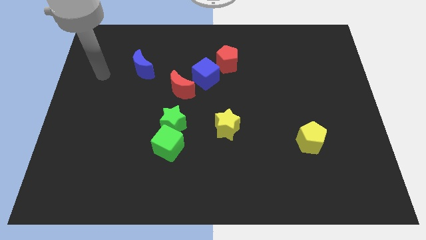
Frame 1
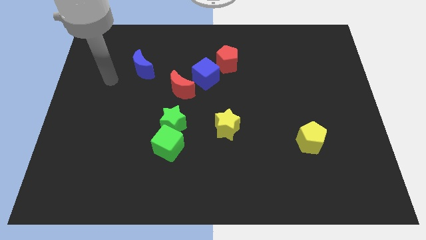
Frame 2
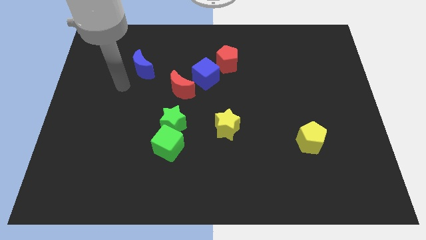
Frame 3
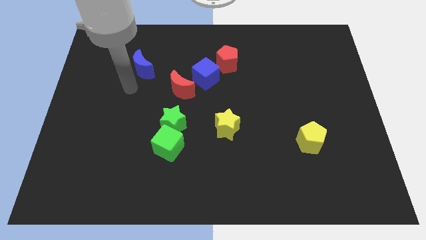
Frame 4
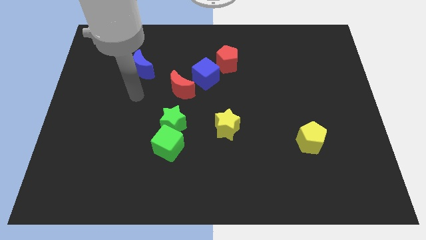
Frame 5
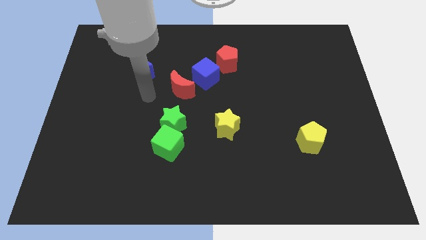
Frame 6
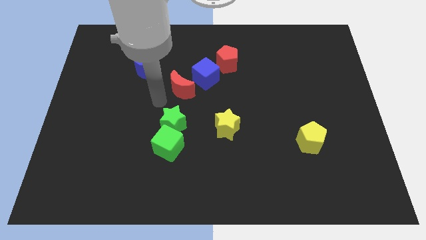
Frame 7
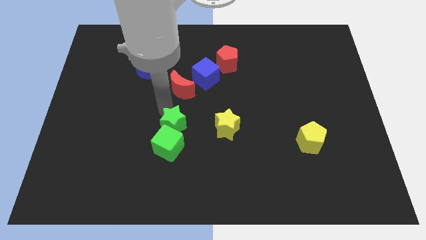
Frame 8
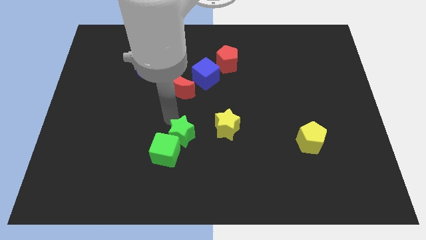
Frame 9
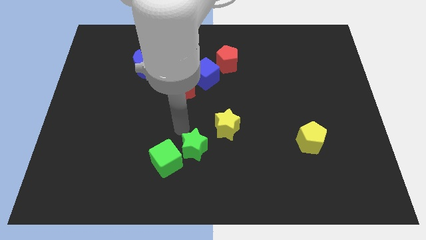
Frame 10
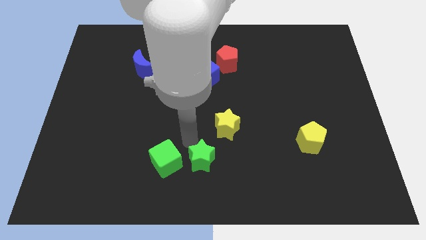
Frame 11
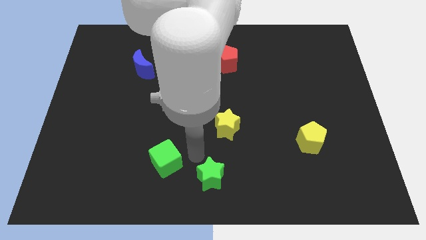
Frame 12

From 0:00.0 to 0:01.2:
separate the green cube from the green star

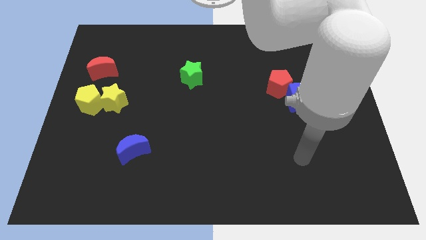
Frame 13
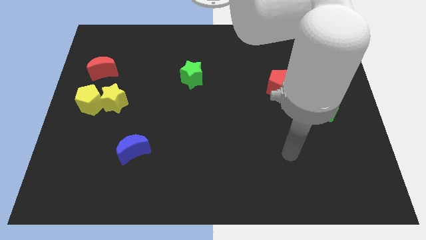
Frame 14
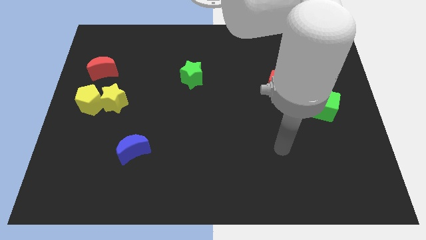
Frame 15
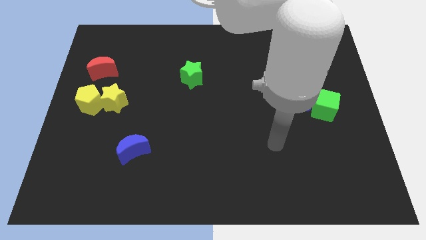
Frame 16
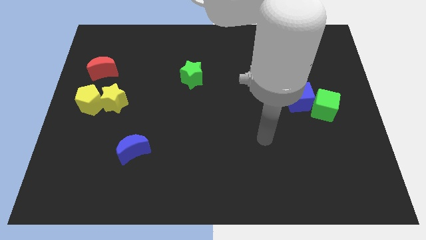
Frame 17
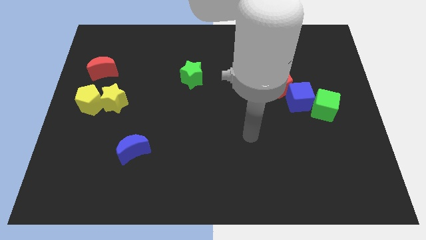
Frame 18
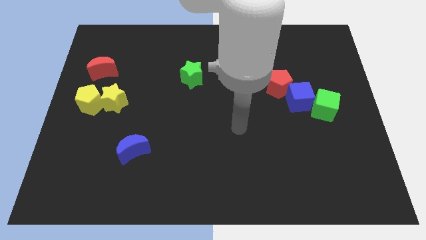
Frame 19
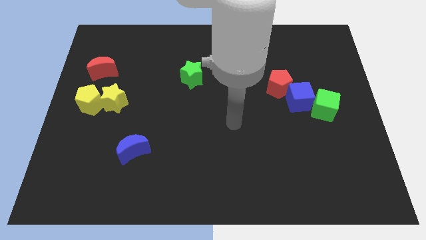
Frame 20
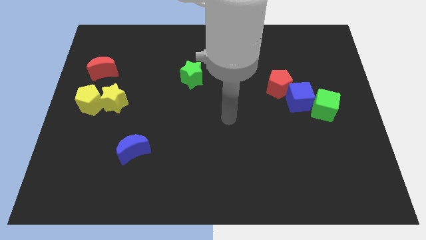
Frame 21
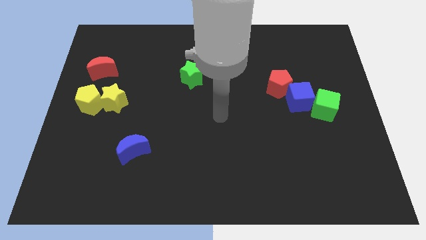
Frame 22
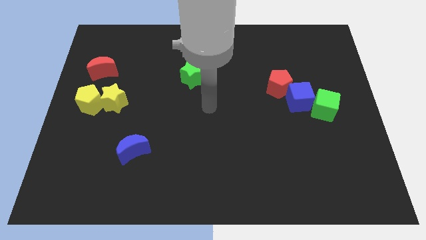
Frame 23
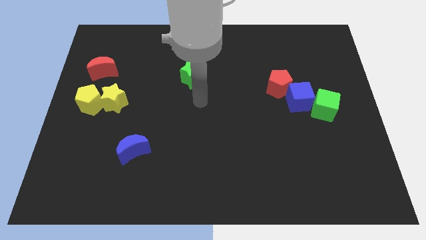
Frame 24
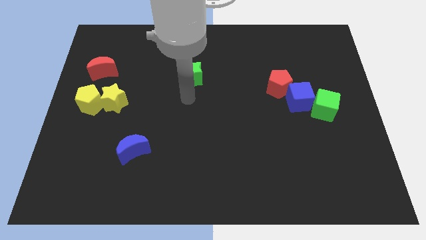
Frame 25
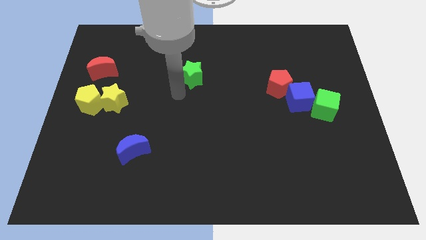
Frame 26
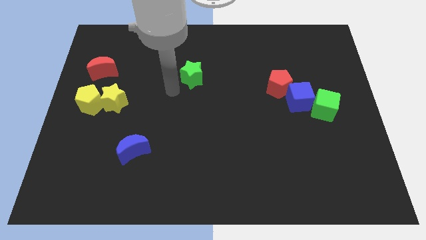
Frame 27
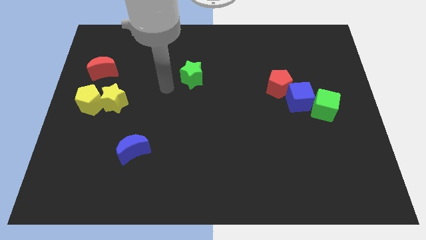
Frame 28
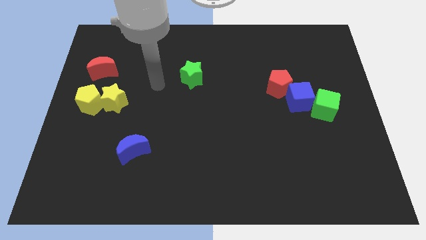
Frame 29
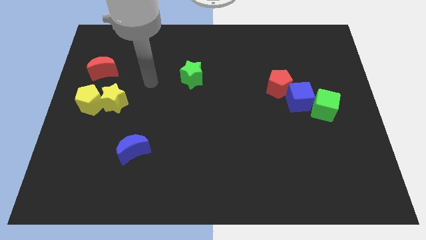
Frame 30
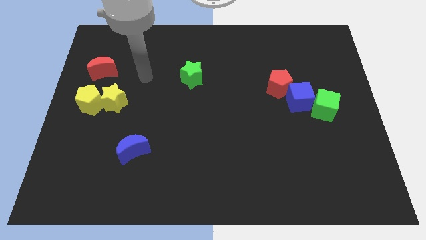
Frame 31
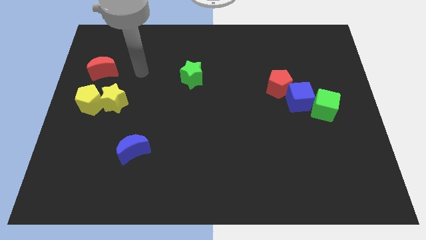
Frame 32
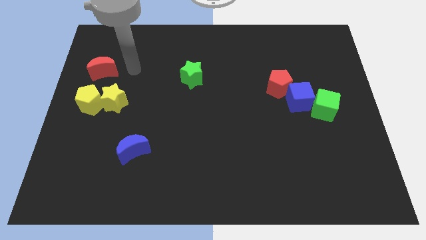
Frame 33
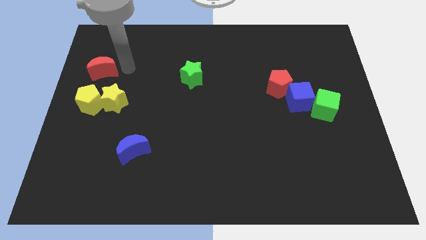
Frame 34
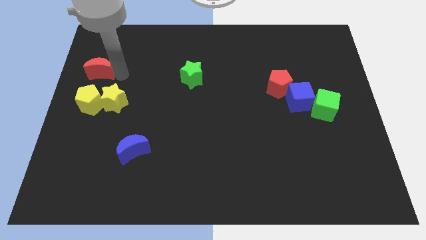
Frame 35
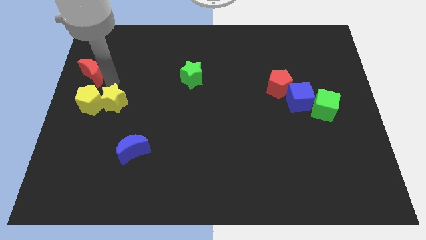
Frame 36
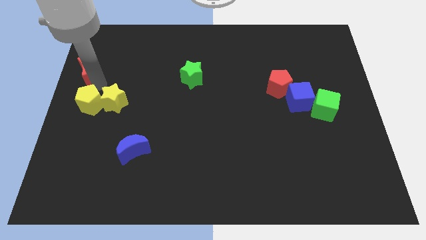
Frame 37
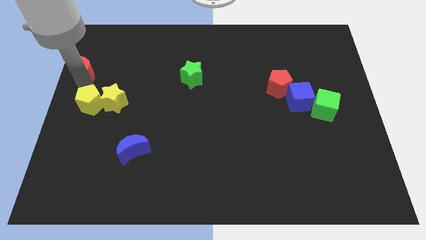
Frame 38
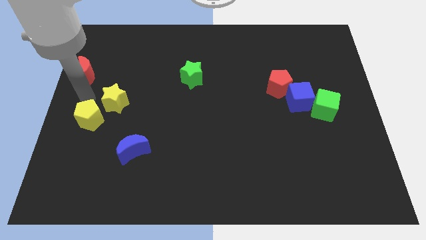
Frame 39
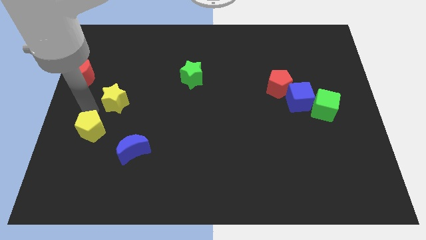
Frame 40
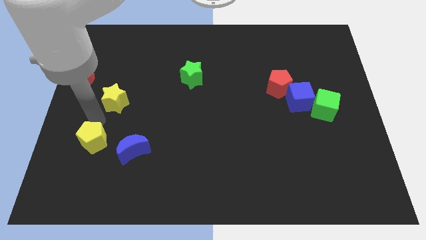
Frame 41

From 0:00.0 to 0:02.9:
separate the yellow star from the yellow pentagon

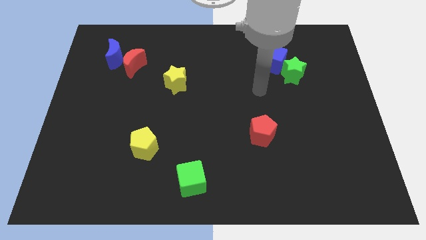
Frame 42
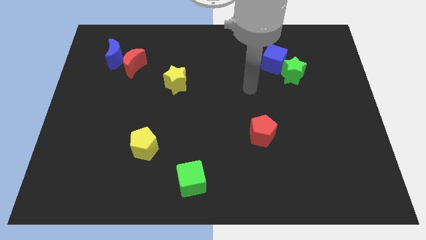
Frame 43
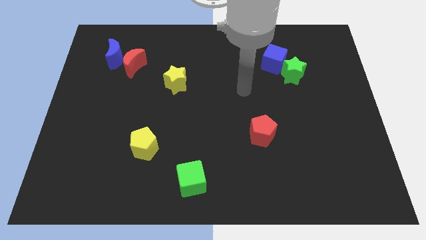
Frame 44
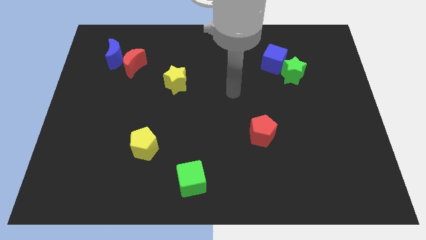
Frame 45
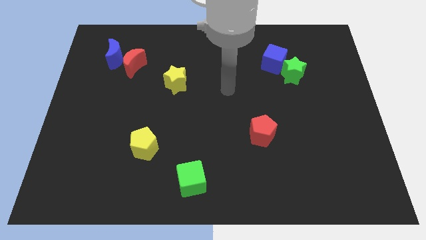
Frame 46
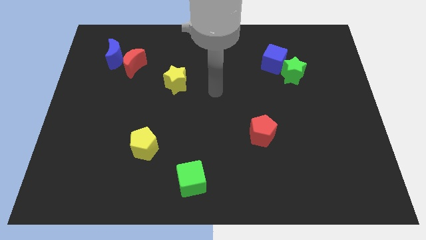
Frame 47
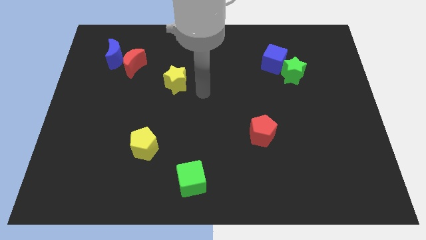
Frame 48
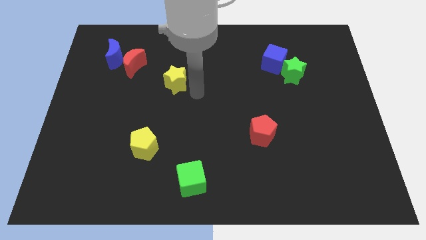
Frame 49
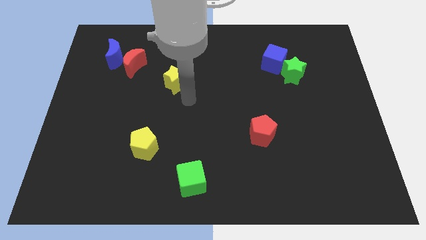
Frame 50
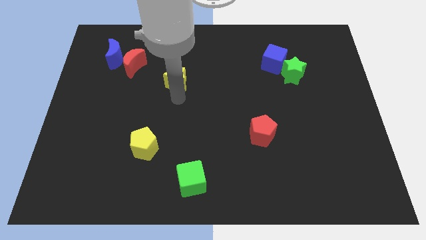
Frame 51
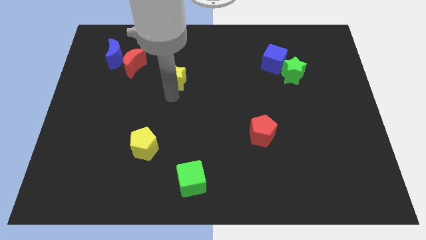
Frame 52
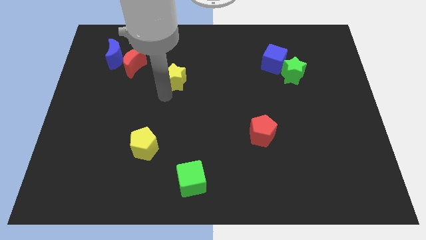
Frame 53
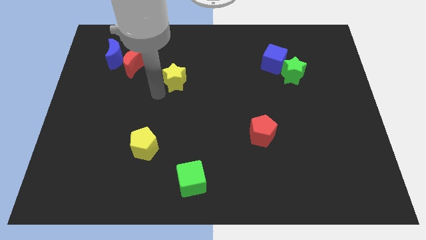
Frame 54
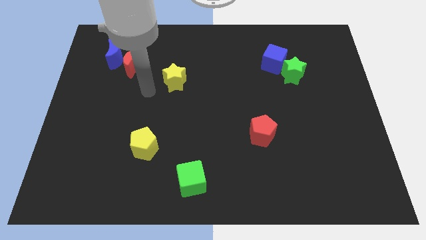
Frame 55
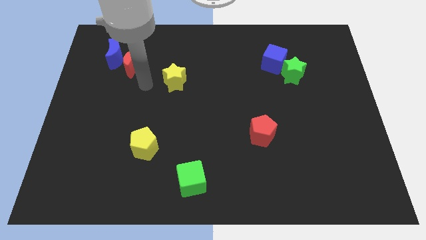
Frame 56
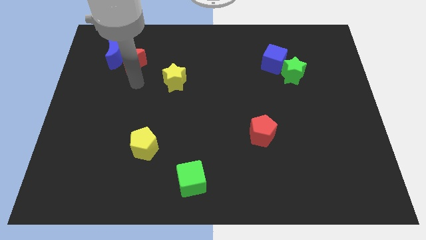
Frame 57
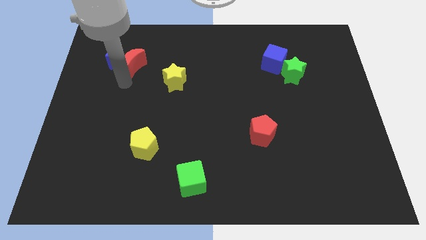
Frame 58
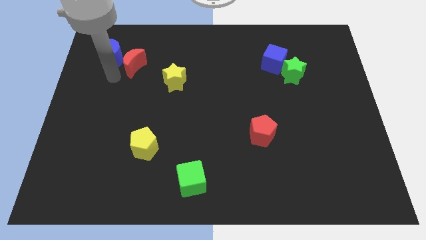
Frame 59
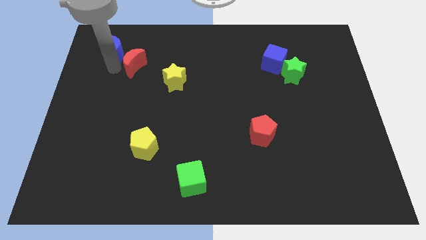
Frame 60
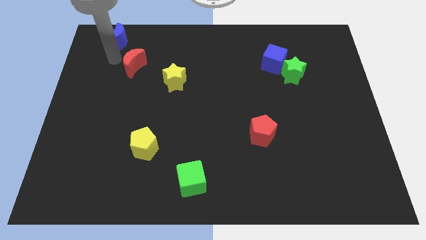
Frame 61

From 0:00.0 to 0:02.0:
move the red moon away from the blue moon

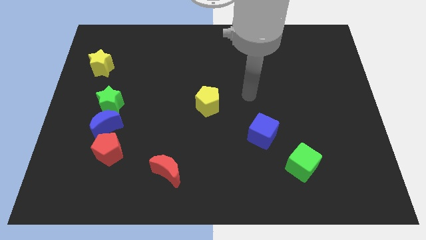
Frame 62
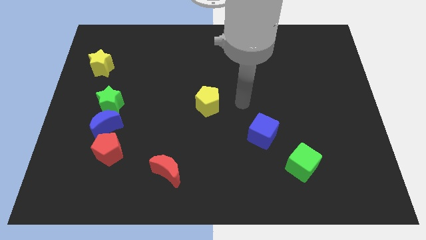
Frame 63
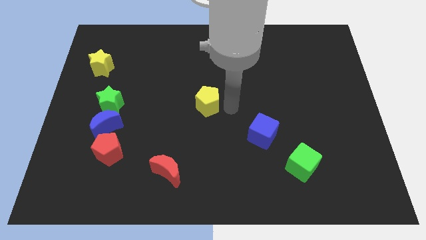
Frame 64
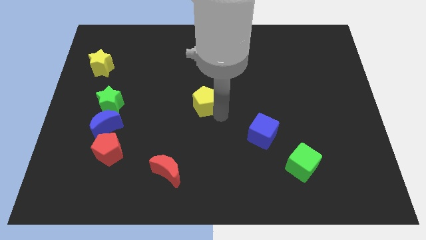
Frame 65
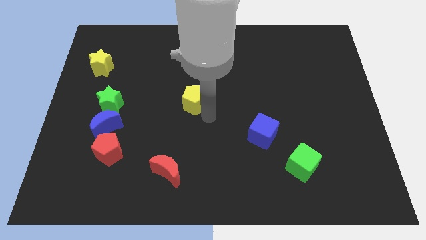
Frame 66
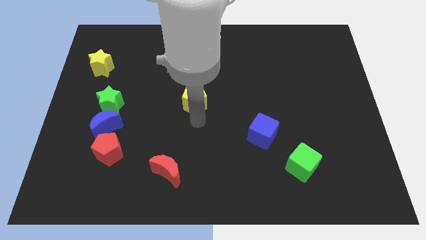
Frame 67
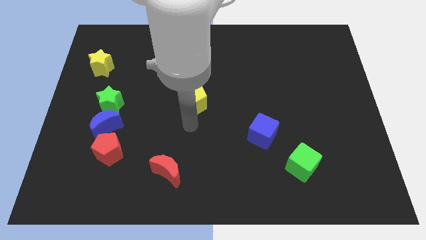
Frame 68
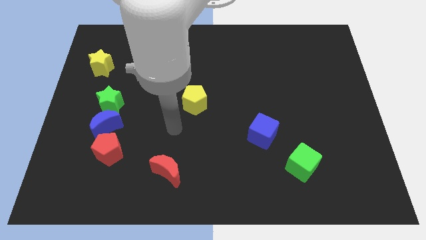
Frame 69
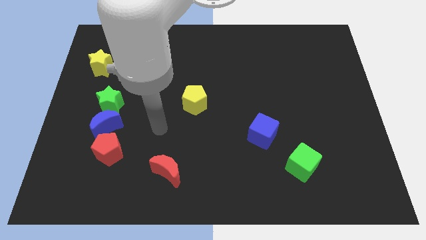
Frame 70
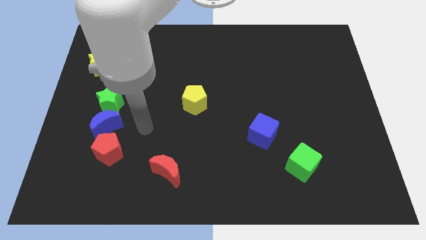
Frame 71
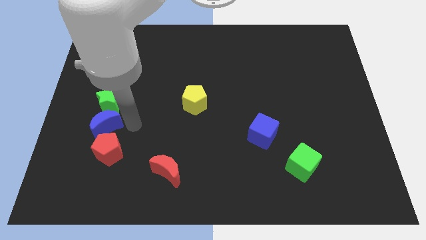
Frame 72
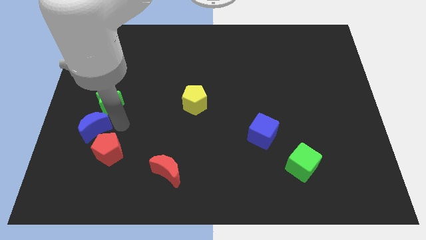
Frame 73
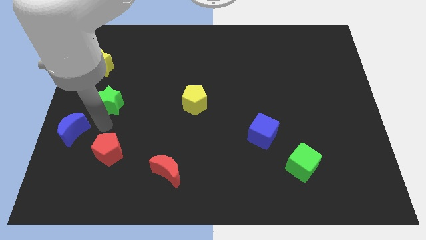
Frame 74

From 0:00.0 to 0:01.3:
pull the green star apart from the blue moon

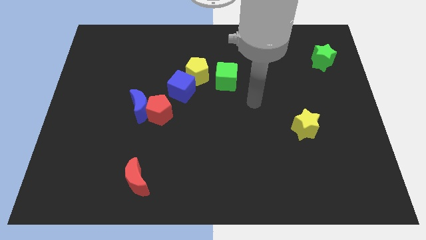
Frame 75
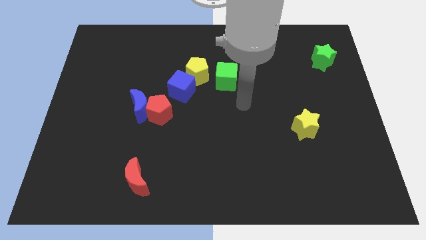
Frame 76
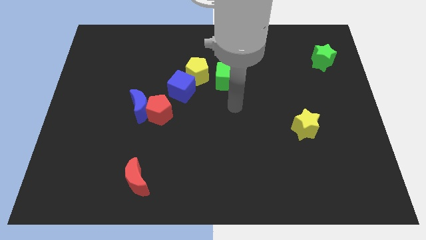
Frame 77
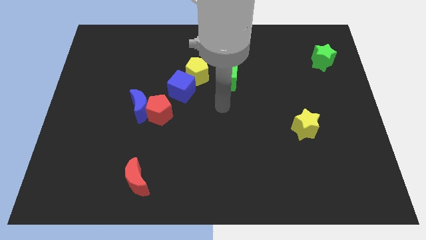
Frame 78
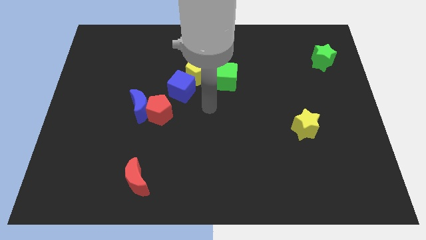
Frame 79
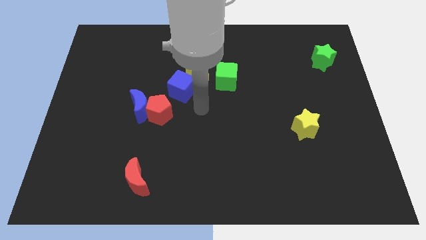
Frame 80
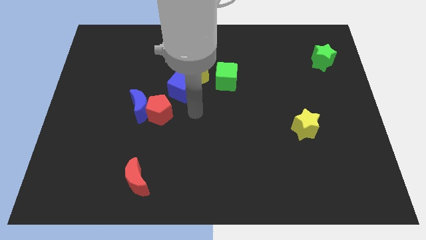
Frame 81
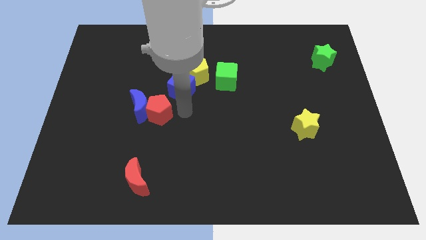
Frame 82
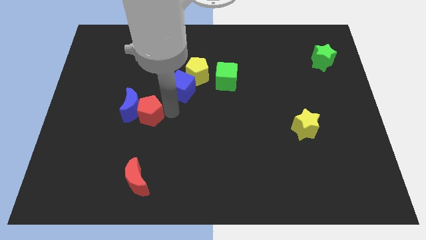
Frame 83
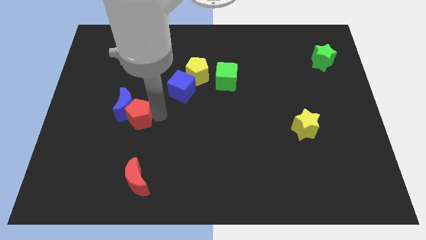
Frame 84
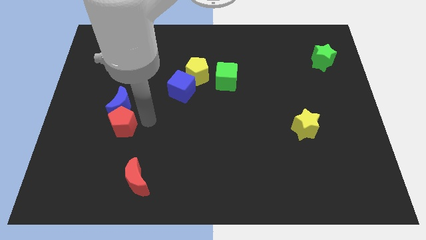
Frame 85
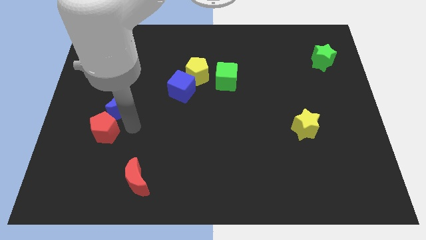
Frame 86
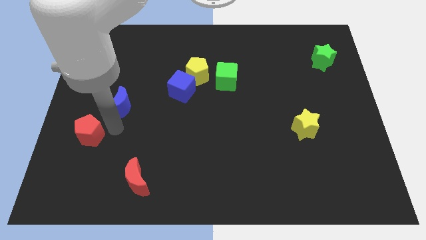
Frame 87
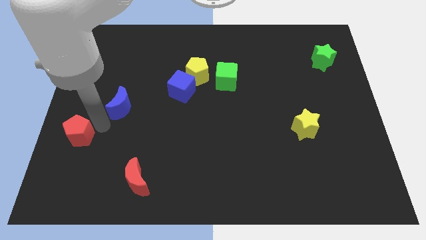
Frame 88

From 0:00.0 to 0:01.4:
separate the blue moon from the red pentagon

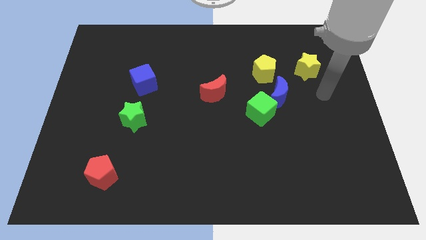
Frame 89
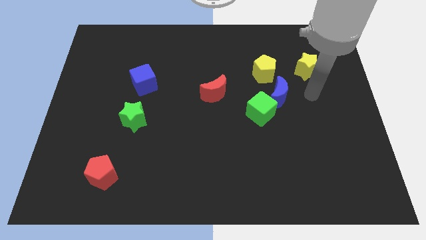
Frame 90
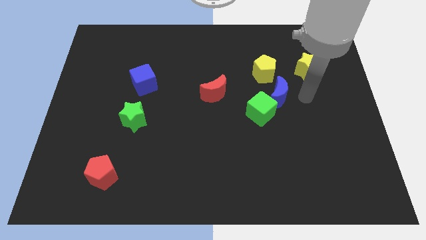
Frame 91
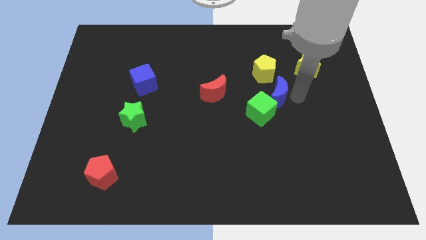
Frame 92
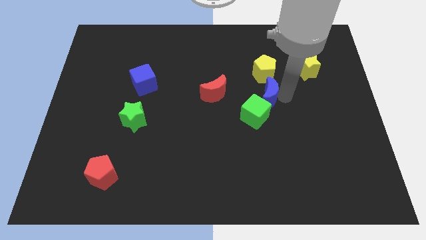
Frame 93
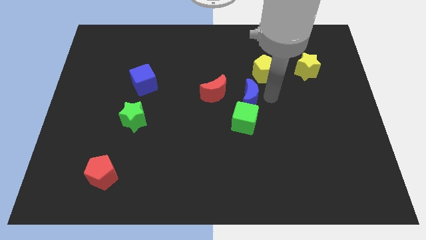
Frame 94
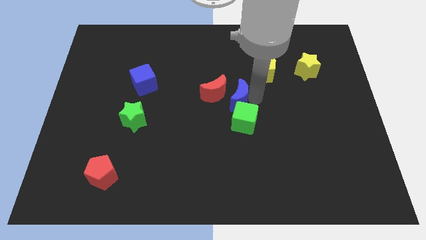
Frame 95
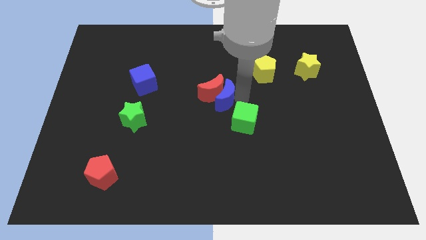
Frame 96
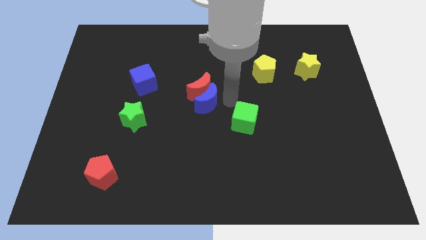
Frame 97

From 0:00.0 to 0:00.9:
separate the green cube from the blue moon
